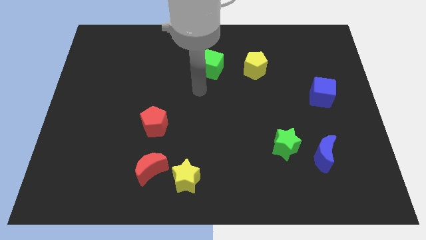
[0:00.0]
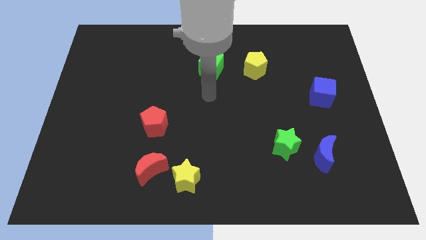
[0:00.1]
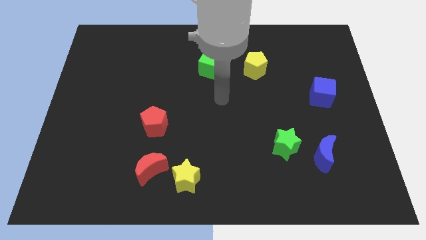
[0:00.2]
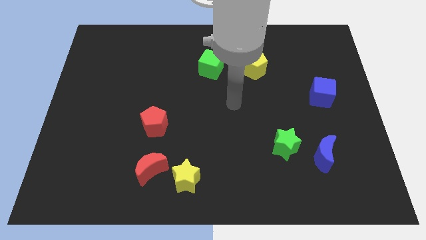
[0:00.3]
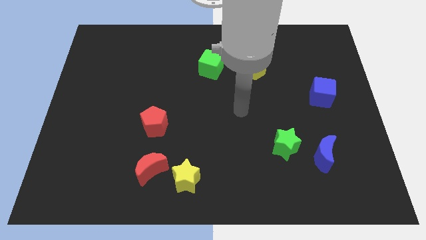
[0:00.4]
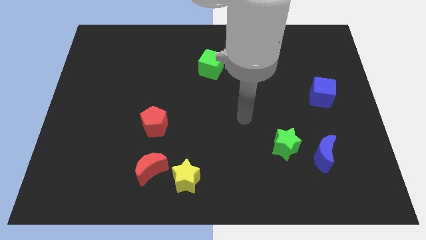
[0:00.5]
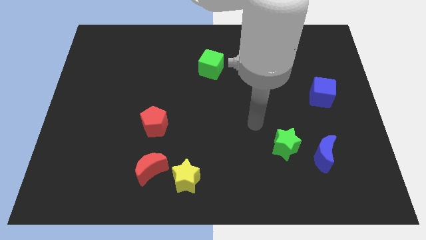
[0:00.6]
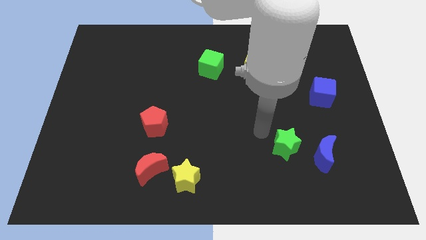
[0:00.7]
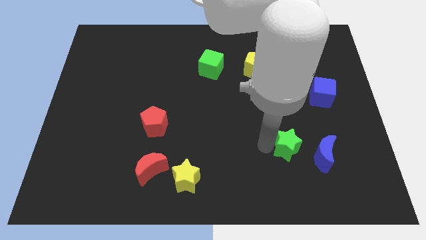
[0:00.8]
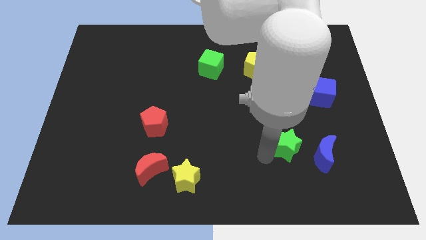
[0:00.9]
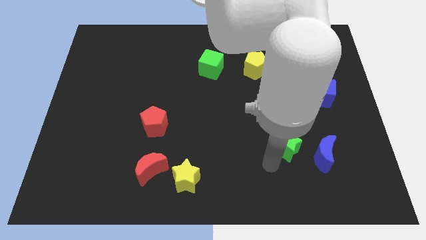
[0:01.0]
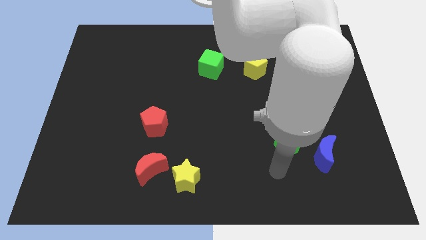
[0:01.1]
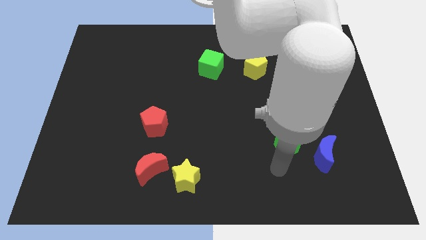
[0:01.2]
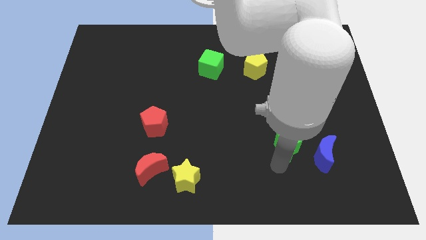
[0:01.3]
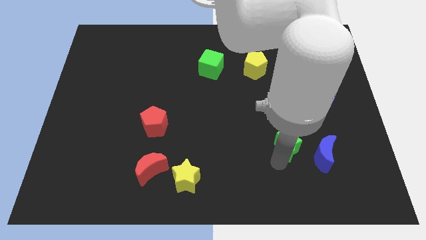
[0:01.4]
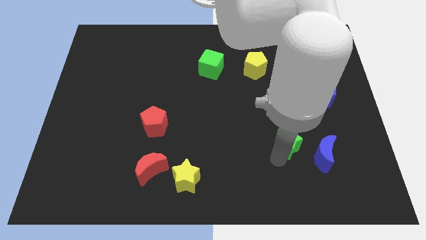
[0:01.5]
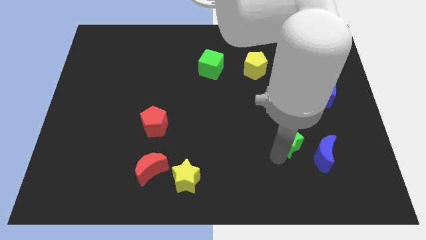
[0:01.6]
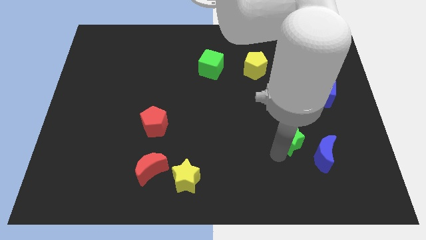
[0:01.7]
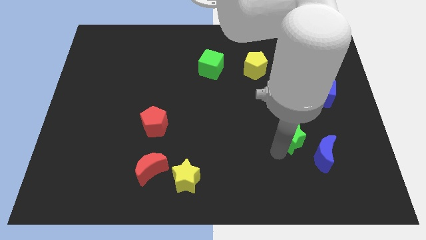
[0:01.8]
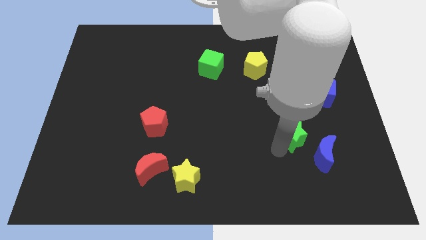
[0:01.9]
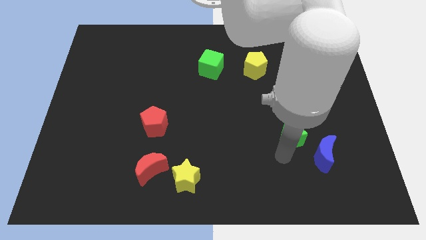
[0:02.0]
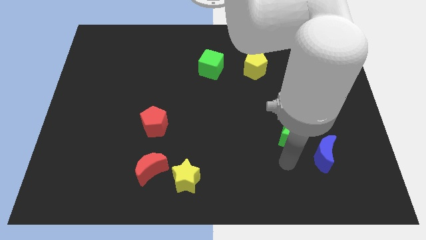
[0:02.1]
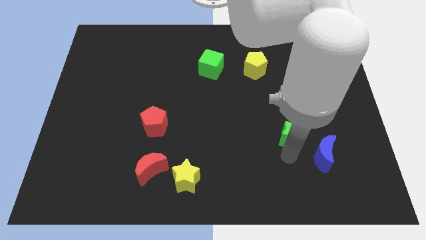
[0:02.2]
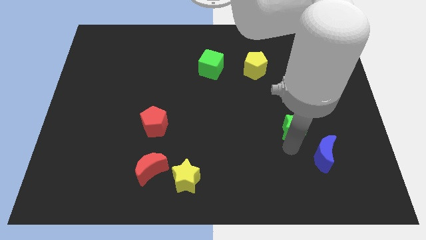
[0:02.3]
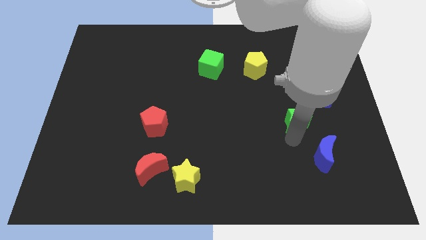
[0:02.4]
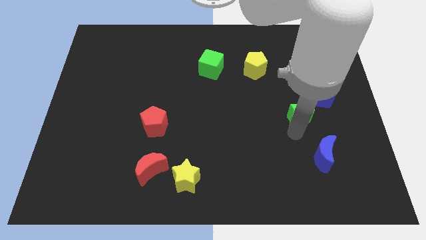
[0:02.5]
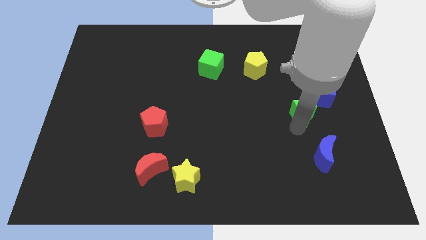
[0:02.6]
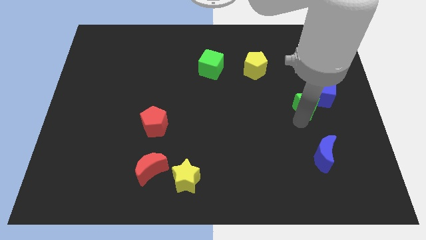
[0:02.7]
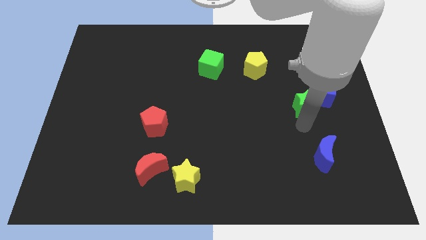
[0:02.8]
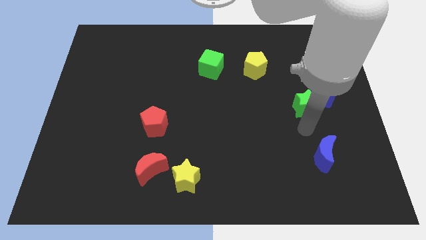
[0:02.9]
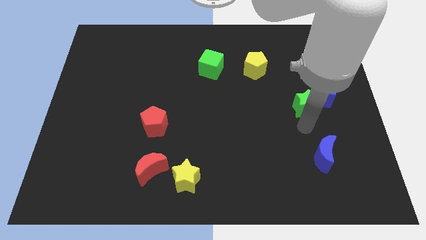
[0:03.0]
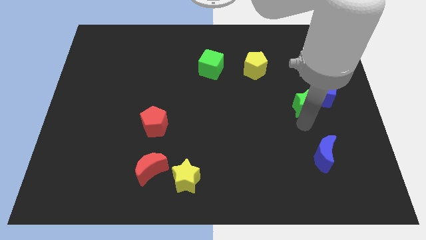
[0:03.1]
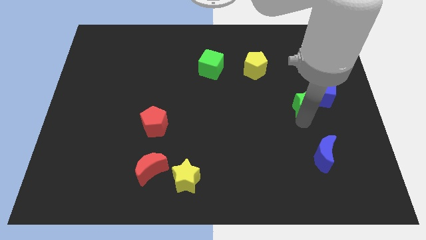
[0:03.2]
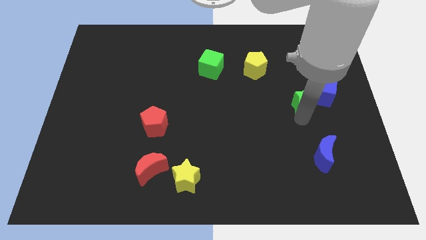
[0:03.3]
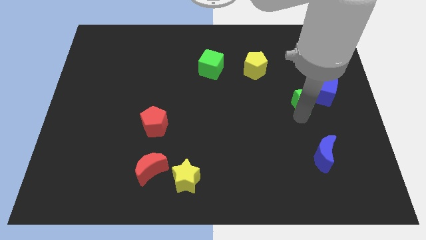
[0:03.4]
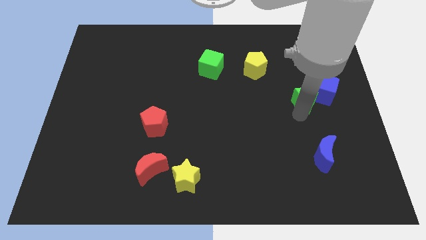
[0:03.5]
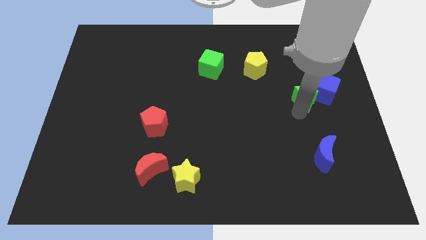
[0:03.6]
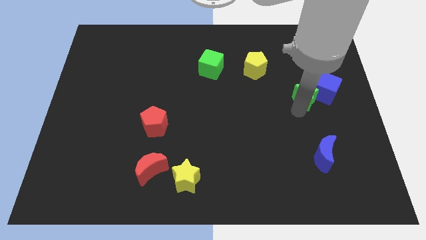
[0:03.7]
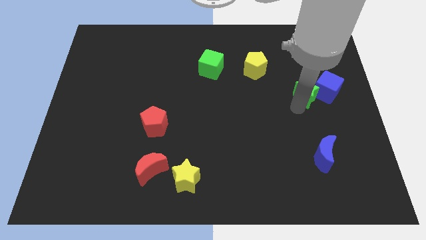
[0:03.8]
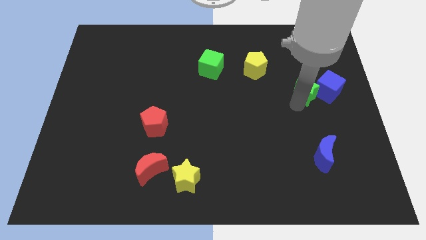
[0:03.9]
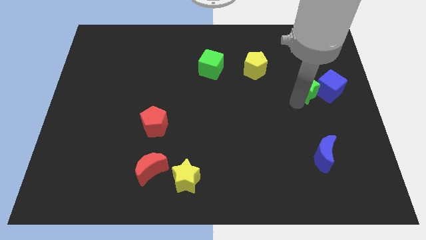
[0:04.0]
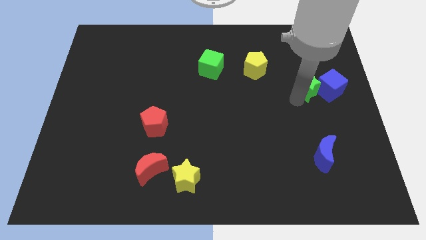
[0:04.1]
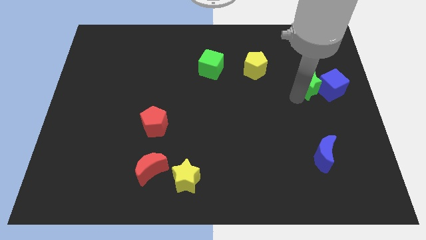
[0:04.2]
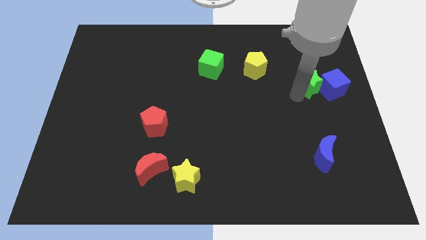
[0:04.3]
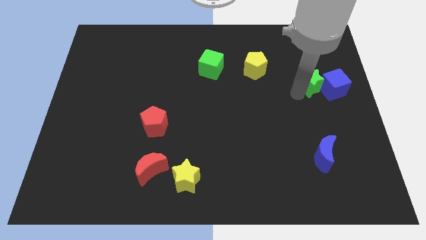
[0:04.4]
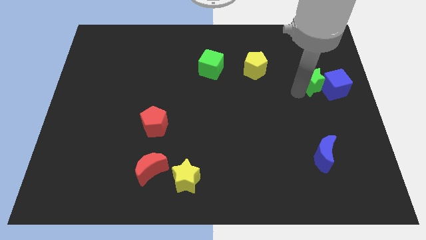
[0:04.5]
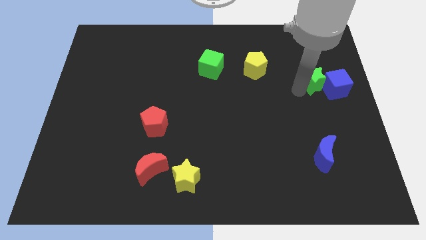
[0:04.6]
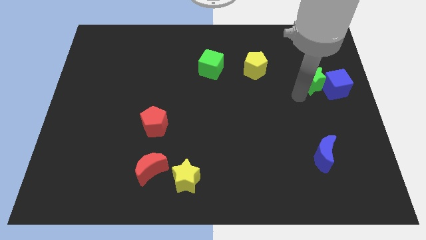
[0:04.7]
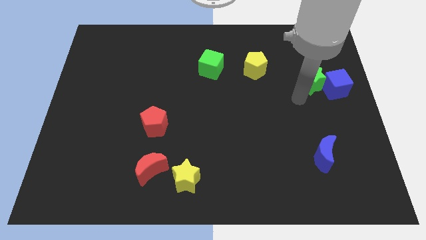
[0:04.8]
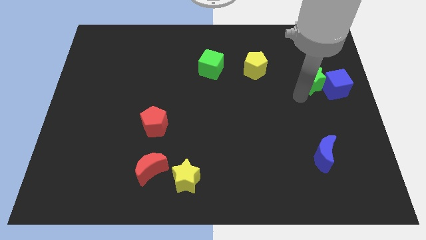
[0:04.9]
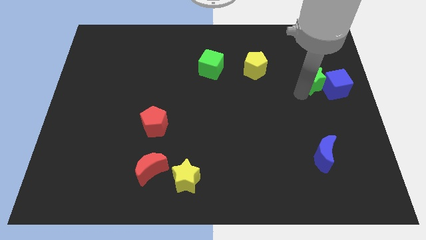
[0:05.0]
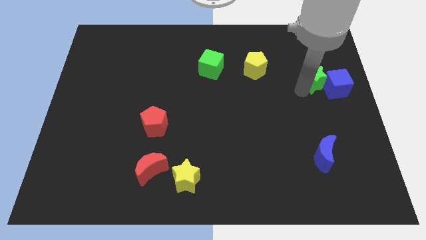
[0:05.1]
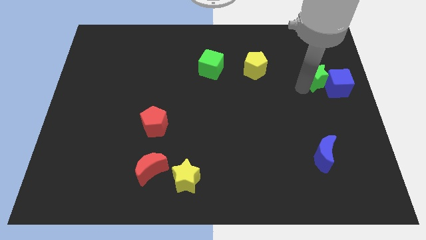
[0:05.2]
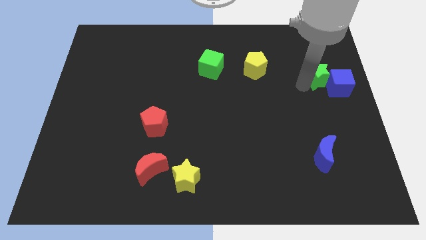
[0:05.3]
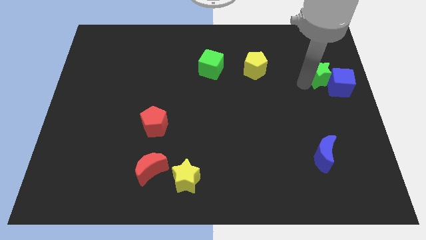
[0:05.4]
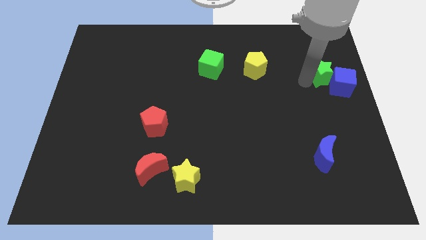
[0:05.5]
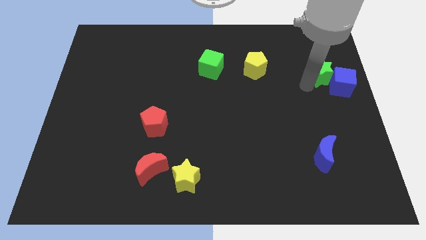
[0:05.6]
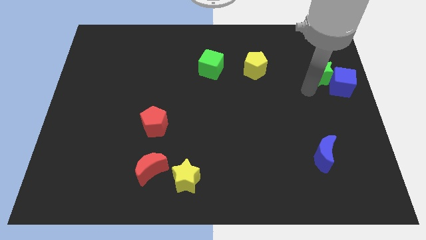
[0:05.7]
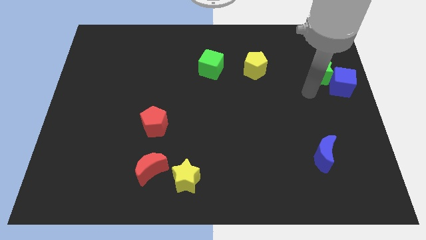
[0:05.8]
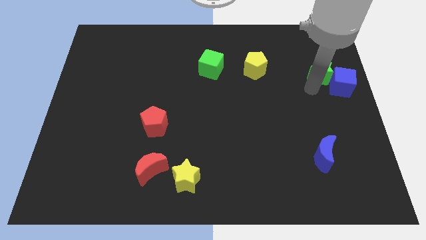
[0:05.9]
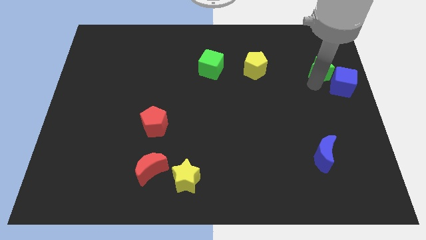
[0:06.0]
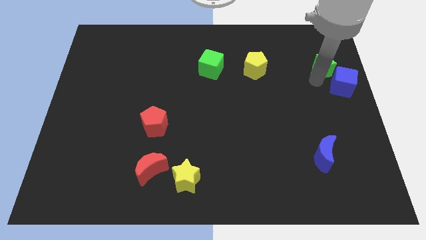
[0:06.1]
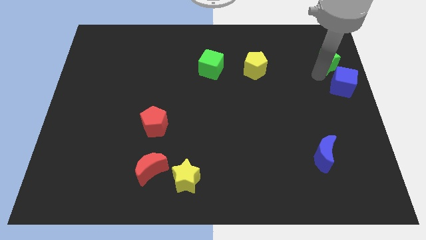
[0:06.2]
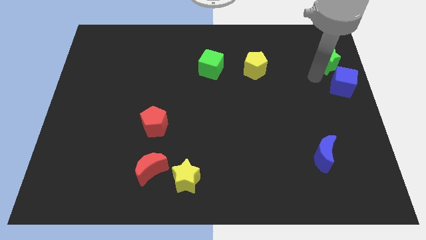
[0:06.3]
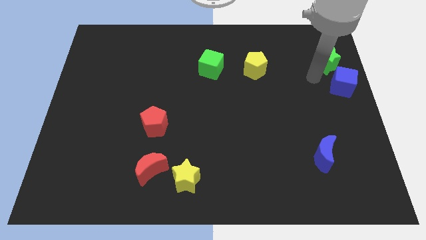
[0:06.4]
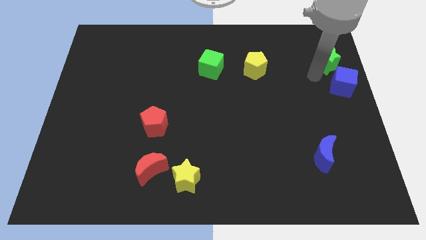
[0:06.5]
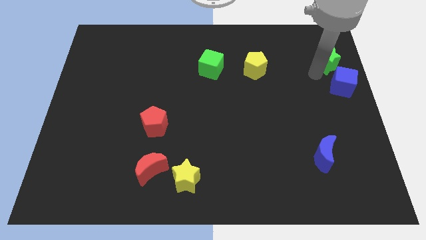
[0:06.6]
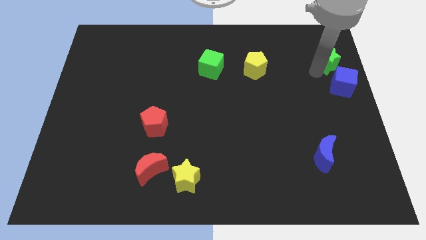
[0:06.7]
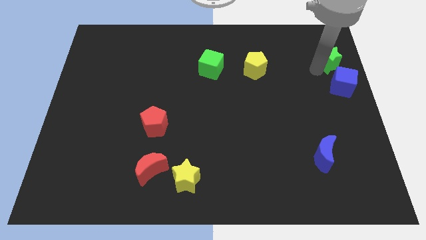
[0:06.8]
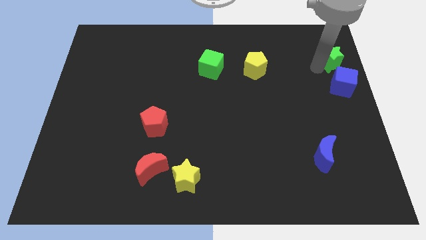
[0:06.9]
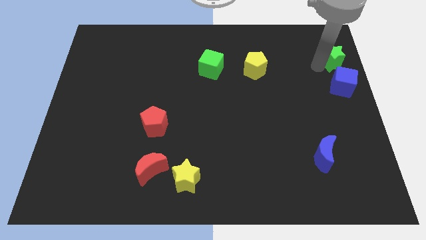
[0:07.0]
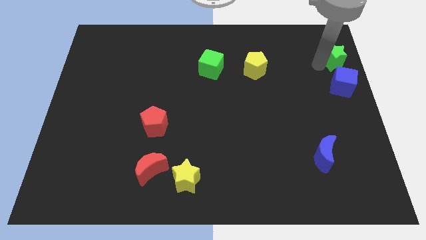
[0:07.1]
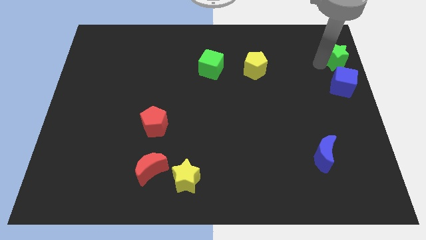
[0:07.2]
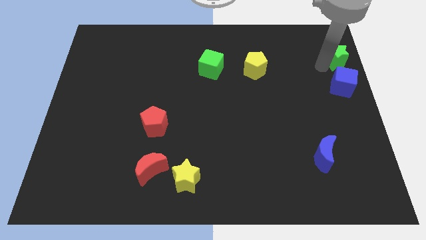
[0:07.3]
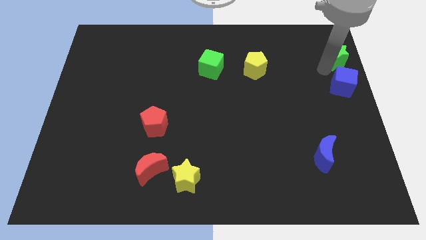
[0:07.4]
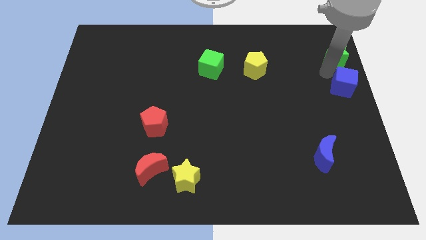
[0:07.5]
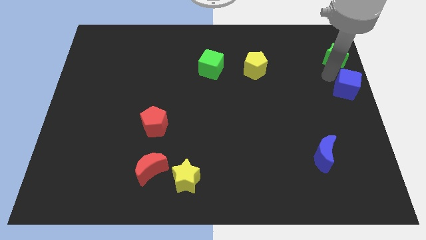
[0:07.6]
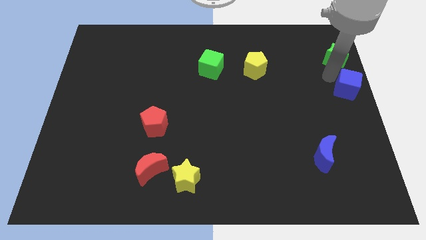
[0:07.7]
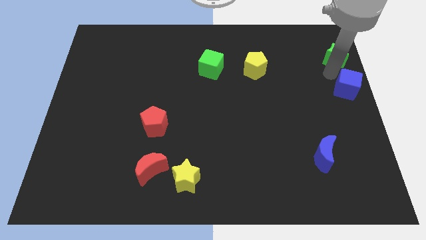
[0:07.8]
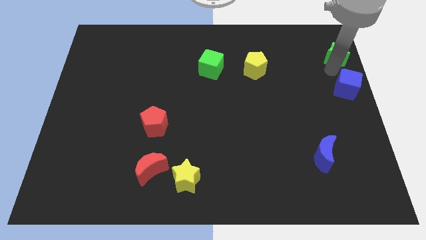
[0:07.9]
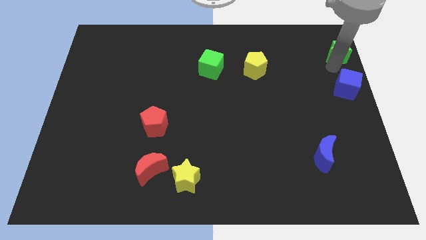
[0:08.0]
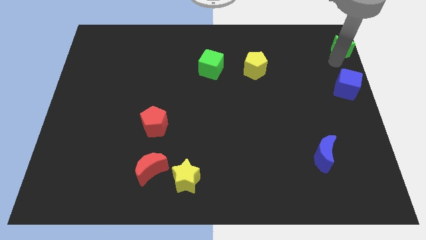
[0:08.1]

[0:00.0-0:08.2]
slide the green star to the upper right corner
